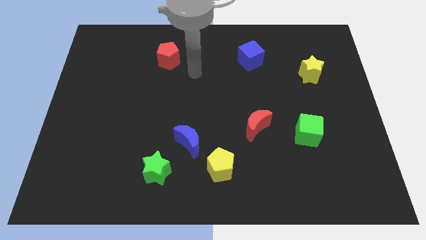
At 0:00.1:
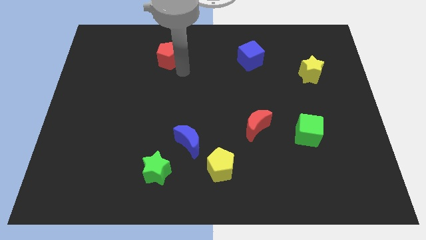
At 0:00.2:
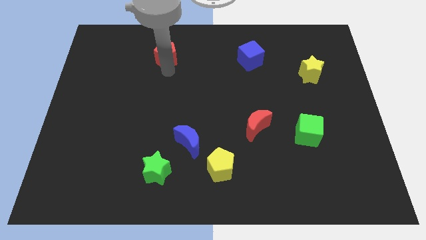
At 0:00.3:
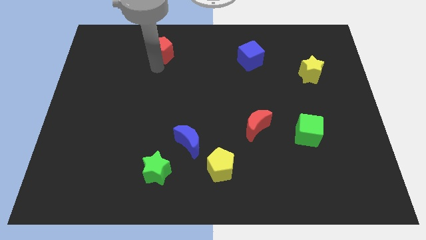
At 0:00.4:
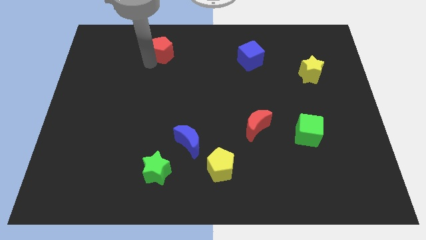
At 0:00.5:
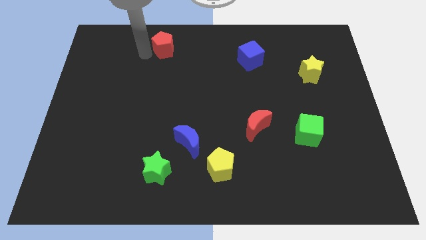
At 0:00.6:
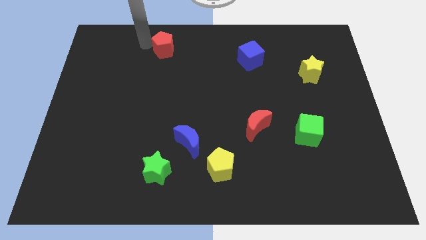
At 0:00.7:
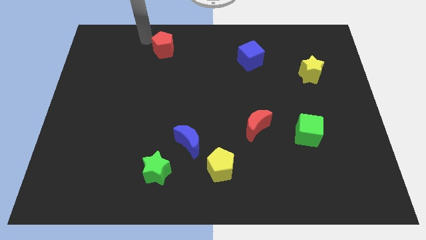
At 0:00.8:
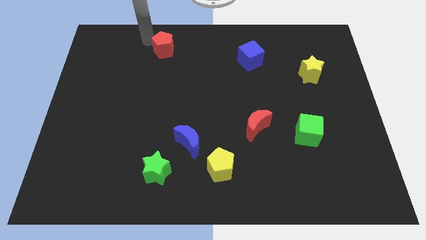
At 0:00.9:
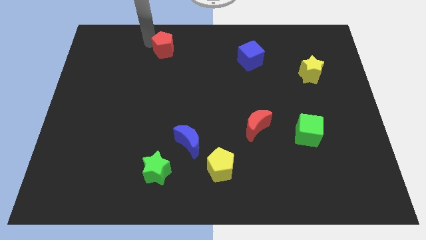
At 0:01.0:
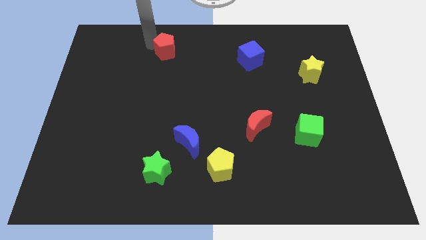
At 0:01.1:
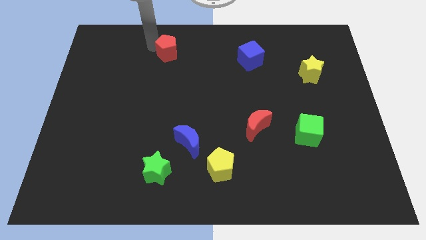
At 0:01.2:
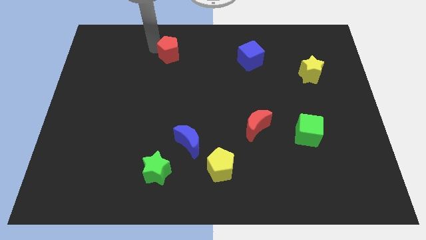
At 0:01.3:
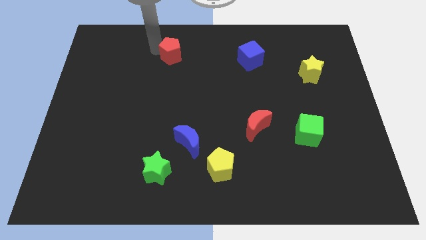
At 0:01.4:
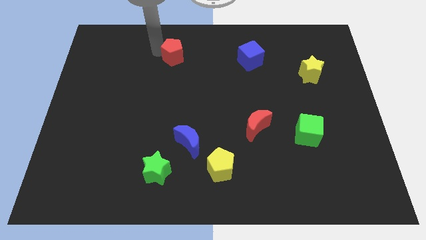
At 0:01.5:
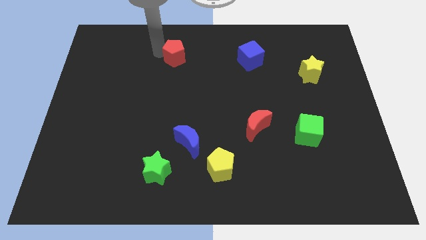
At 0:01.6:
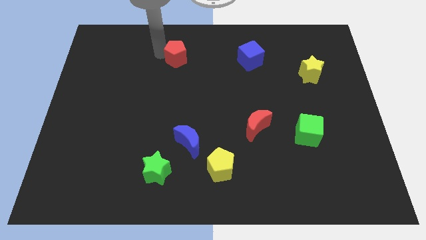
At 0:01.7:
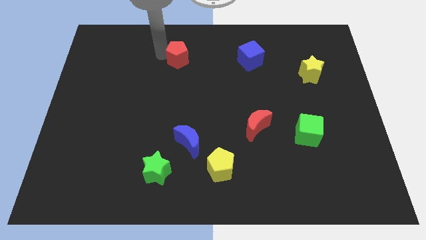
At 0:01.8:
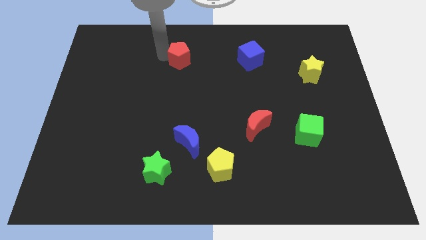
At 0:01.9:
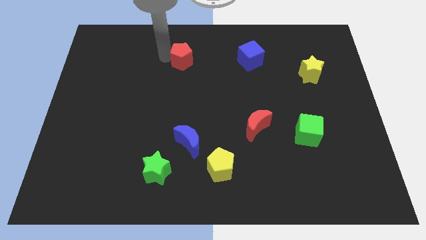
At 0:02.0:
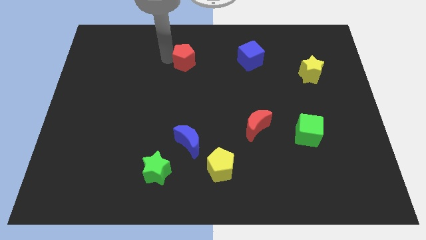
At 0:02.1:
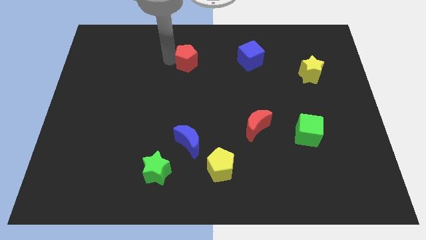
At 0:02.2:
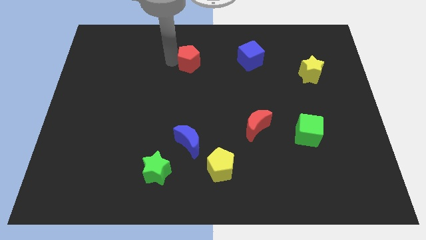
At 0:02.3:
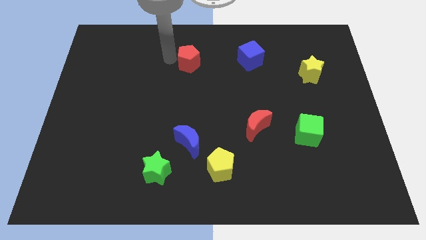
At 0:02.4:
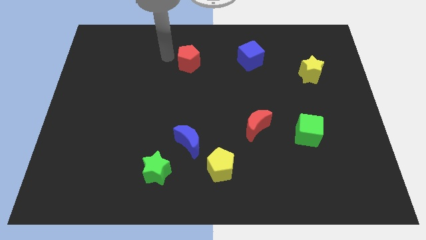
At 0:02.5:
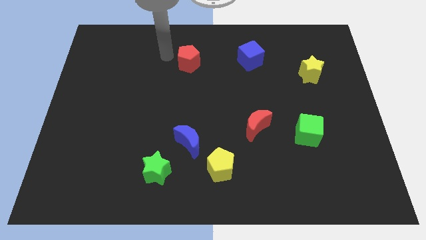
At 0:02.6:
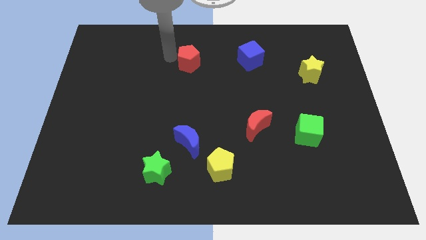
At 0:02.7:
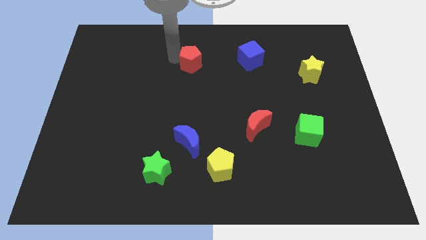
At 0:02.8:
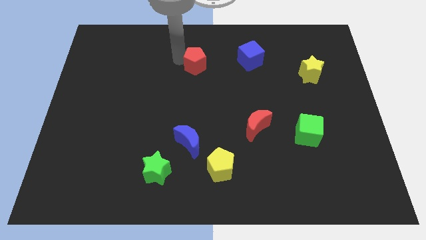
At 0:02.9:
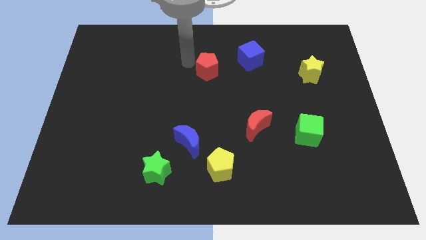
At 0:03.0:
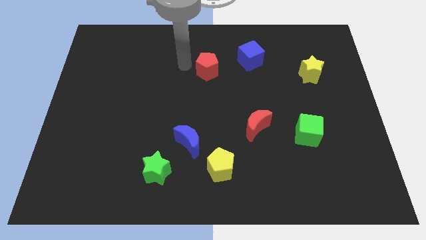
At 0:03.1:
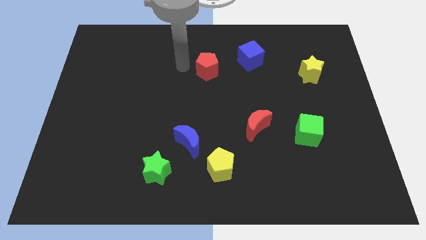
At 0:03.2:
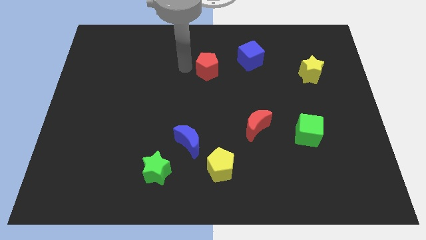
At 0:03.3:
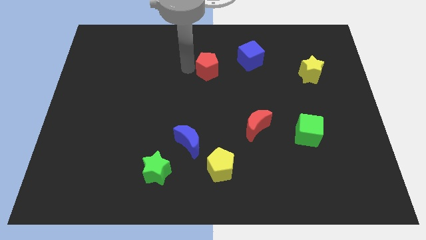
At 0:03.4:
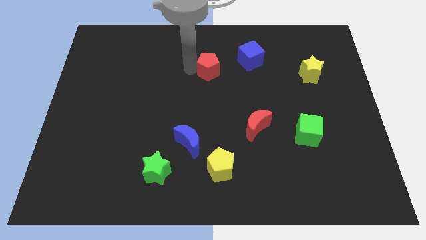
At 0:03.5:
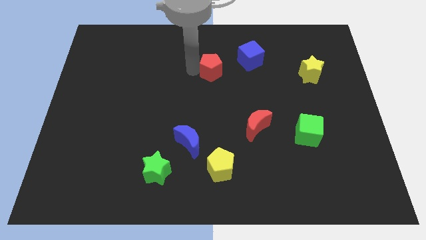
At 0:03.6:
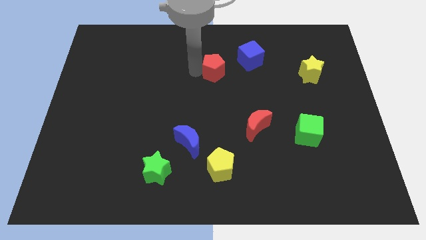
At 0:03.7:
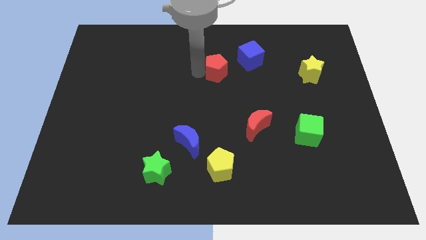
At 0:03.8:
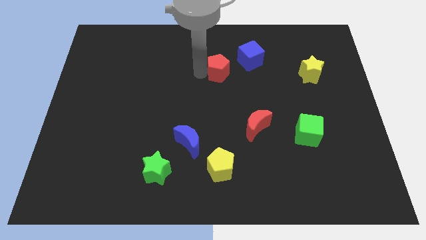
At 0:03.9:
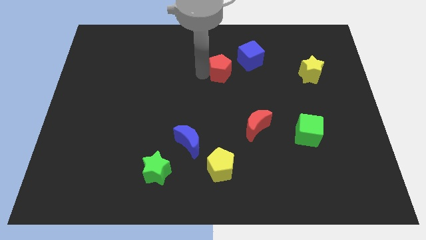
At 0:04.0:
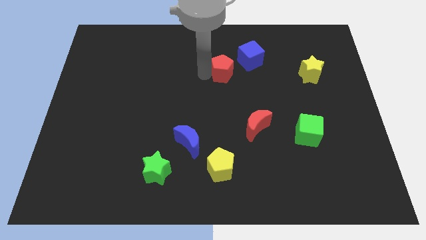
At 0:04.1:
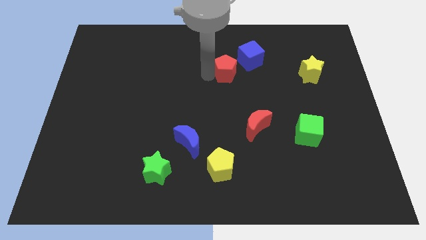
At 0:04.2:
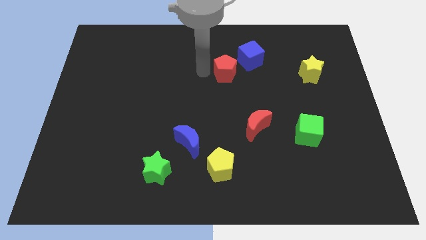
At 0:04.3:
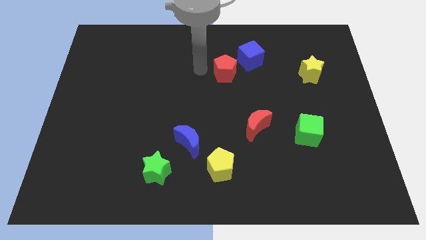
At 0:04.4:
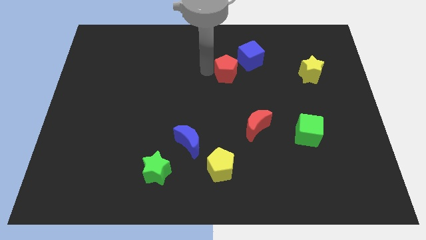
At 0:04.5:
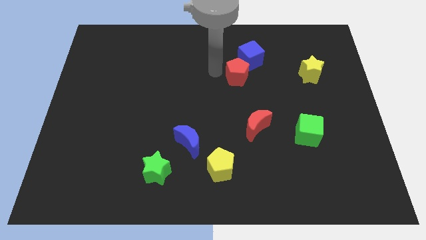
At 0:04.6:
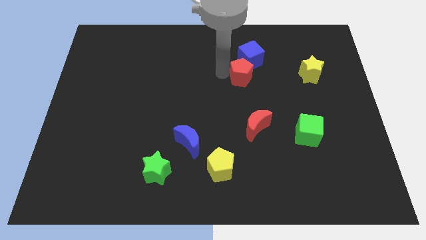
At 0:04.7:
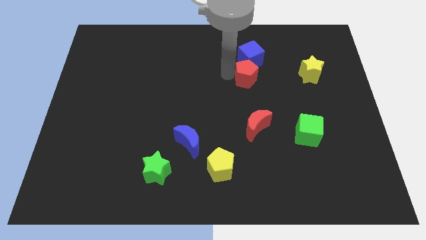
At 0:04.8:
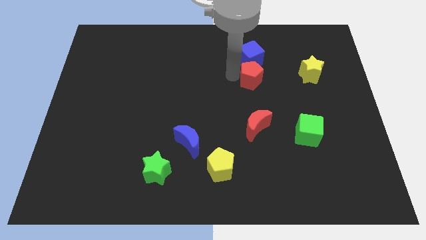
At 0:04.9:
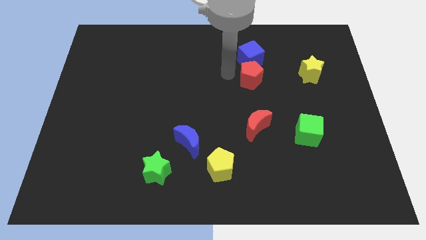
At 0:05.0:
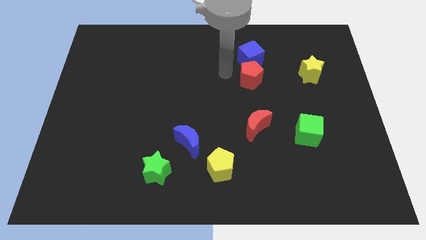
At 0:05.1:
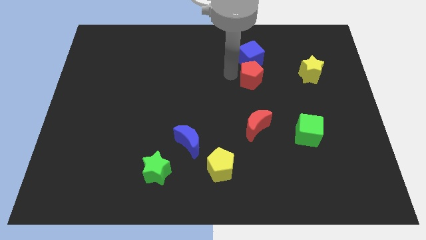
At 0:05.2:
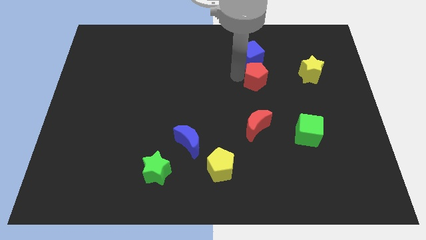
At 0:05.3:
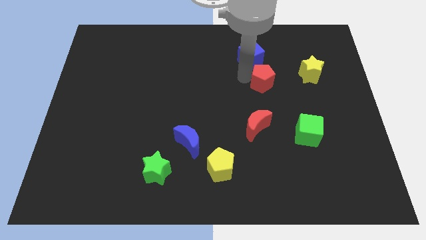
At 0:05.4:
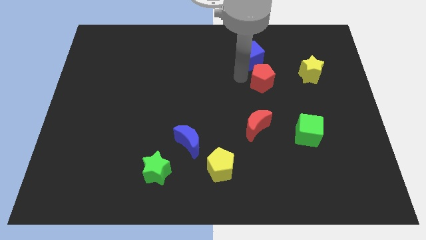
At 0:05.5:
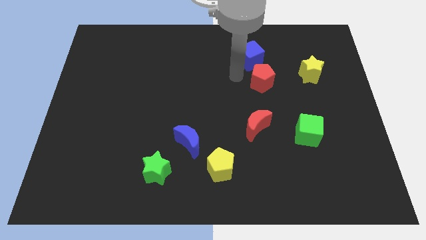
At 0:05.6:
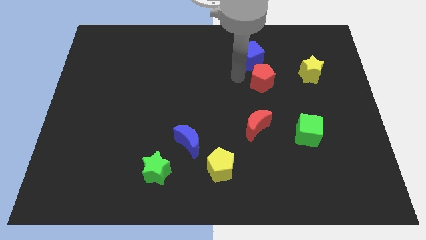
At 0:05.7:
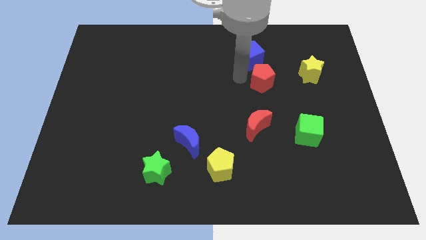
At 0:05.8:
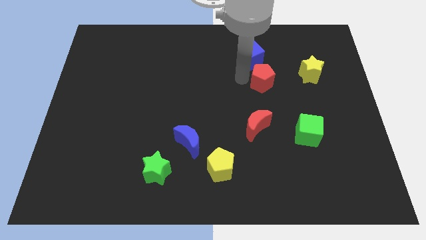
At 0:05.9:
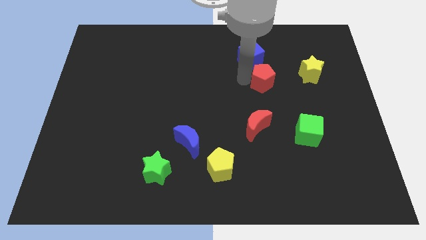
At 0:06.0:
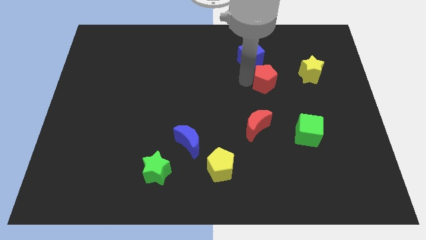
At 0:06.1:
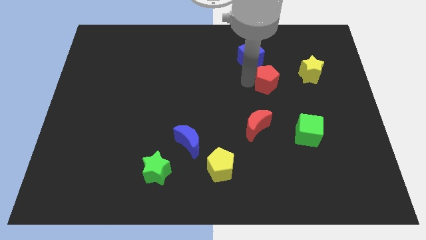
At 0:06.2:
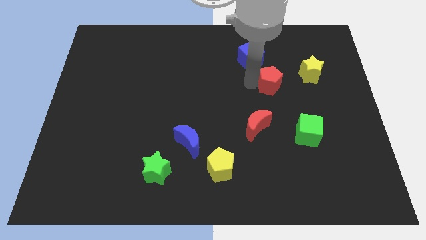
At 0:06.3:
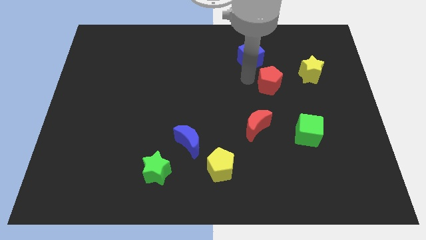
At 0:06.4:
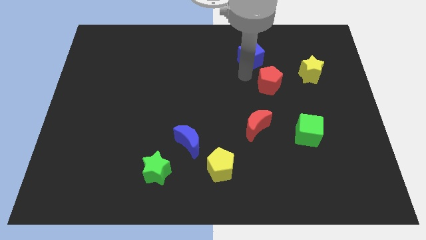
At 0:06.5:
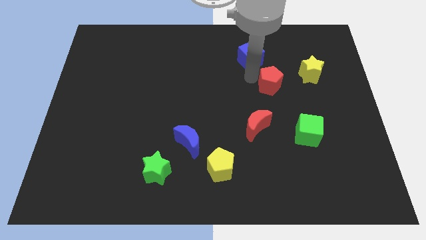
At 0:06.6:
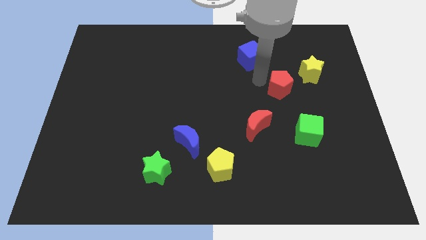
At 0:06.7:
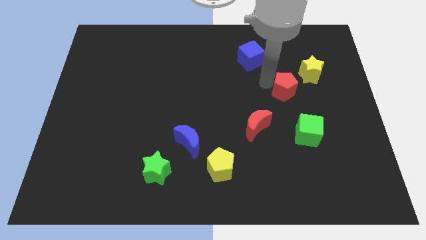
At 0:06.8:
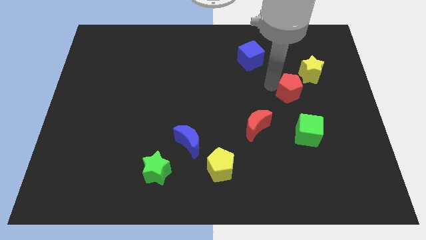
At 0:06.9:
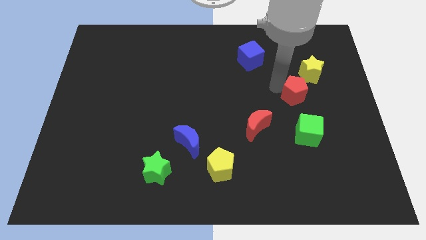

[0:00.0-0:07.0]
push the red pentagon to the bottom side of the yellow star

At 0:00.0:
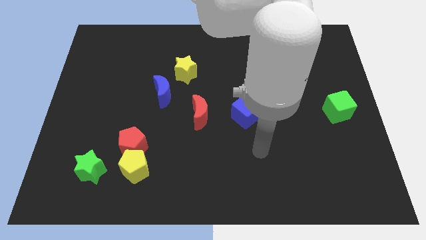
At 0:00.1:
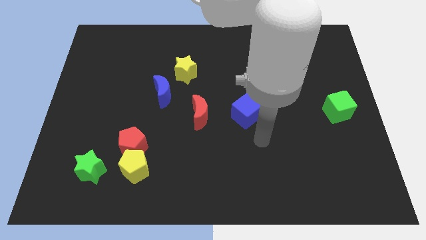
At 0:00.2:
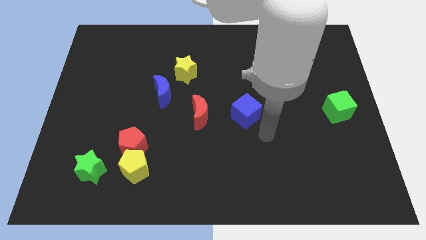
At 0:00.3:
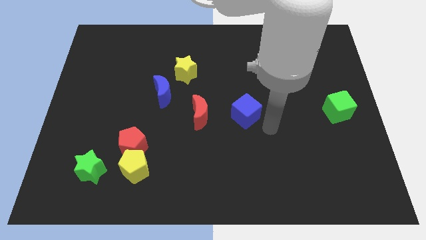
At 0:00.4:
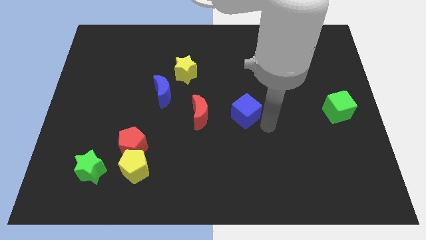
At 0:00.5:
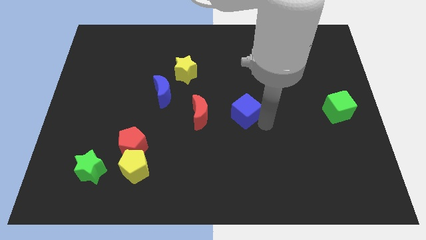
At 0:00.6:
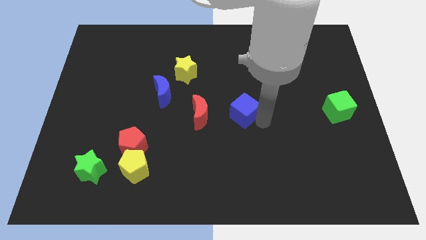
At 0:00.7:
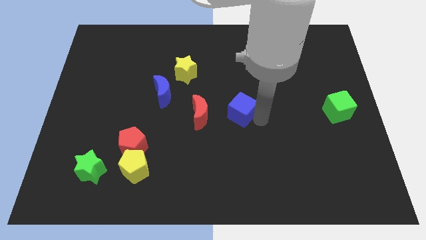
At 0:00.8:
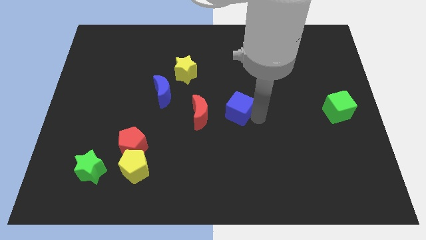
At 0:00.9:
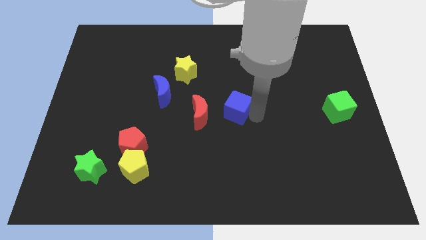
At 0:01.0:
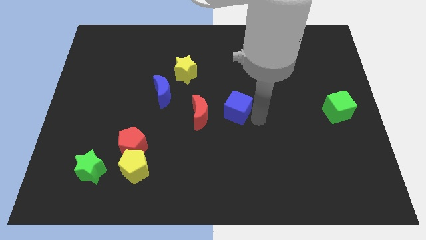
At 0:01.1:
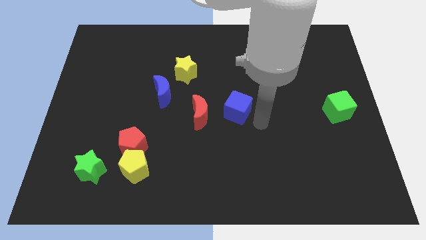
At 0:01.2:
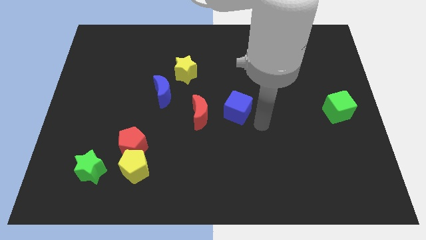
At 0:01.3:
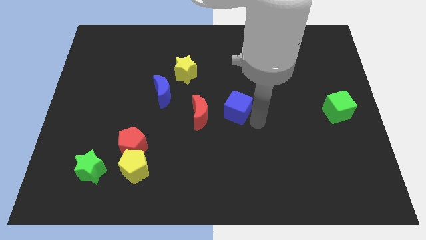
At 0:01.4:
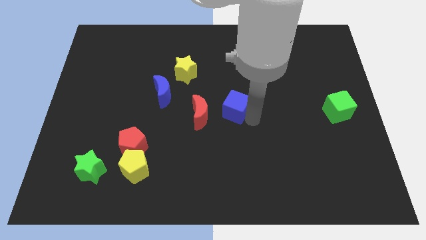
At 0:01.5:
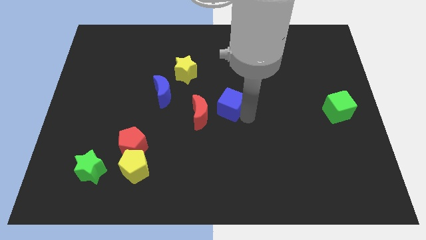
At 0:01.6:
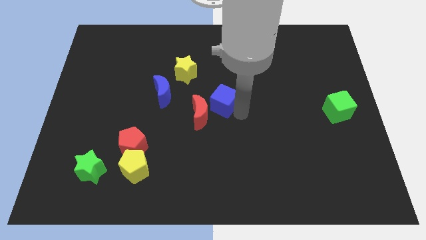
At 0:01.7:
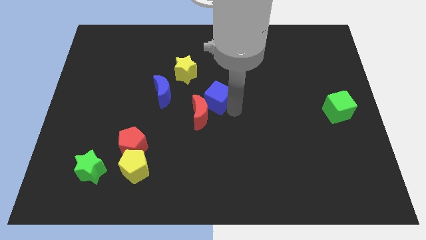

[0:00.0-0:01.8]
push the blue cube to the top of the red moon
